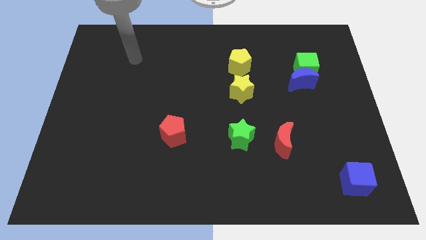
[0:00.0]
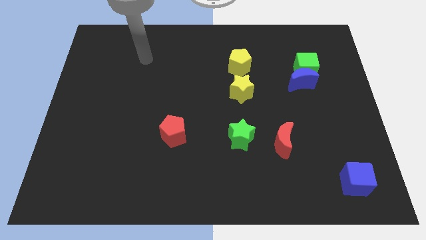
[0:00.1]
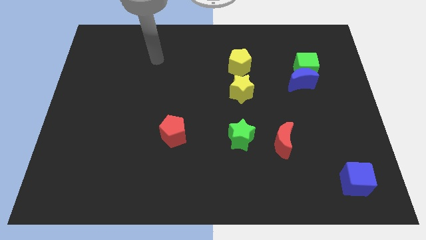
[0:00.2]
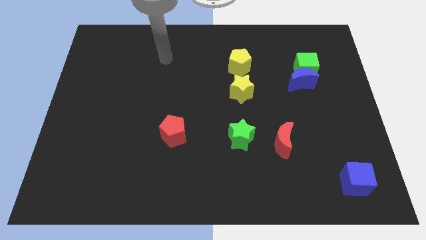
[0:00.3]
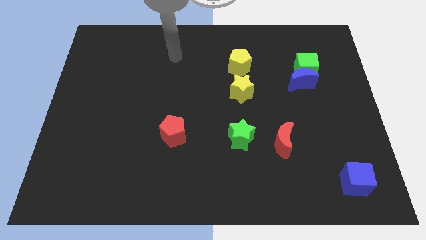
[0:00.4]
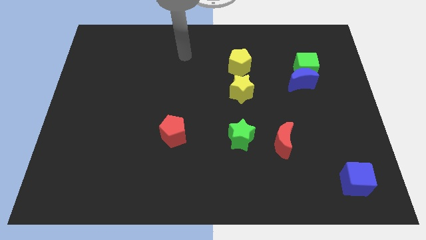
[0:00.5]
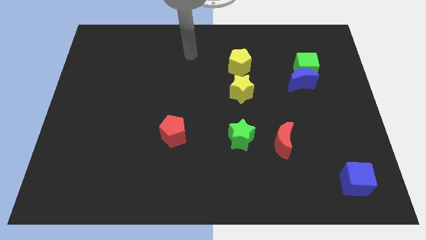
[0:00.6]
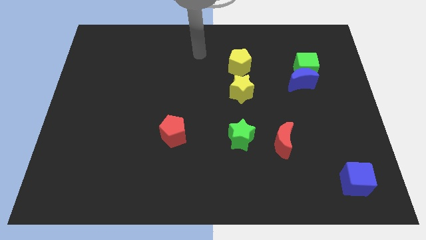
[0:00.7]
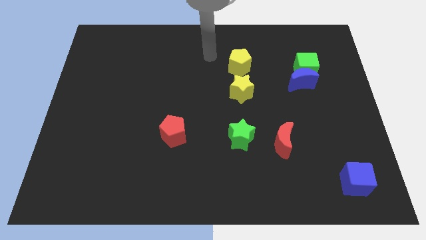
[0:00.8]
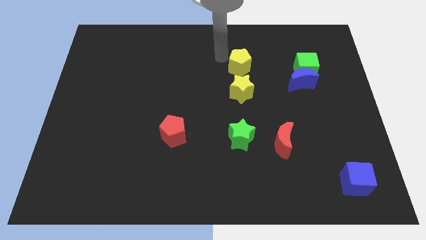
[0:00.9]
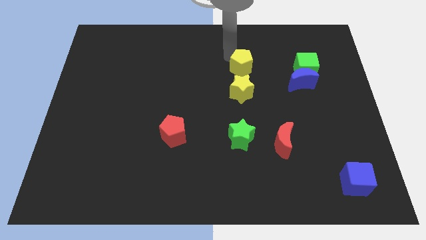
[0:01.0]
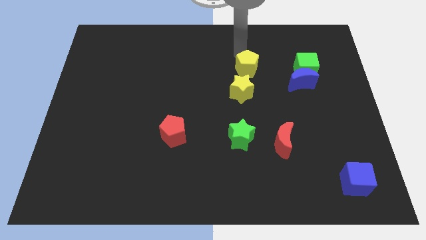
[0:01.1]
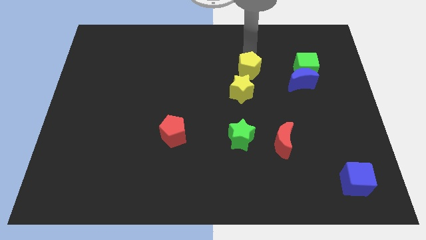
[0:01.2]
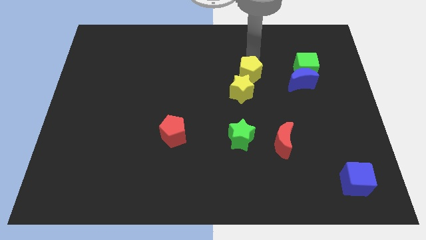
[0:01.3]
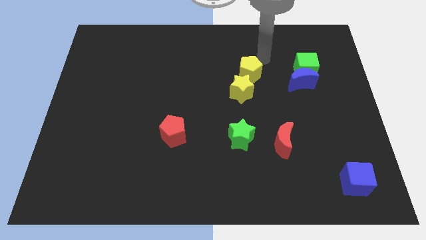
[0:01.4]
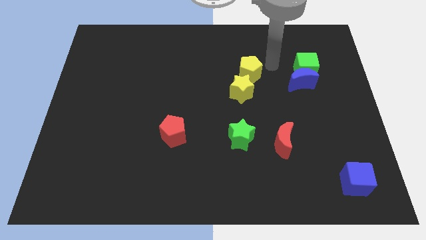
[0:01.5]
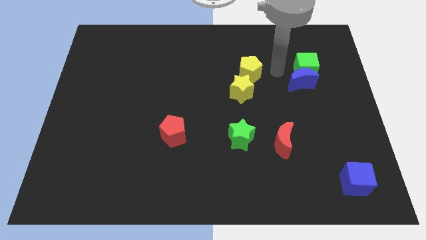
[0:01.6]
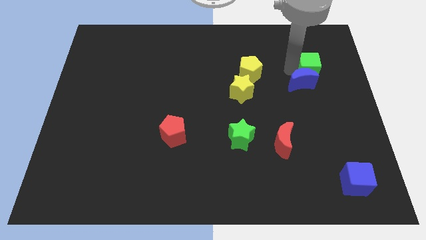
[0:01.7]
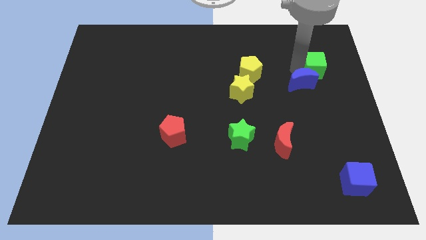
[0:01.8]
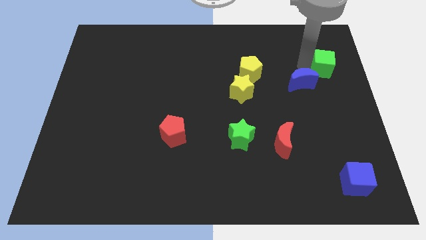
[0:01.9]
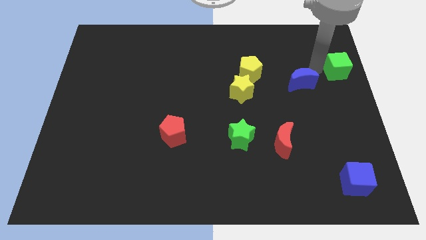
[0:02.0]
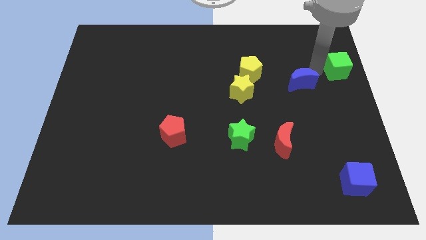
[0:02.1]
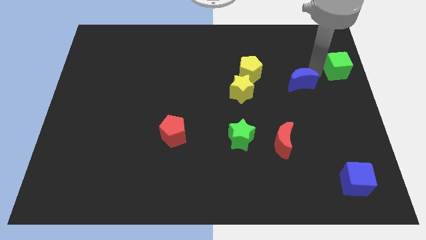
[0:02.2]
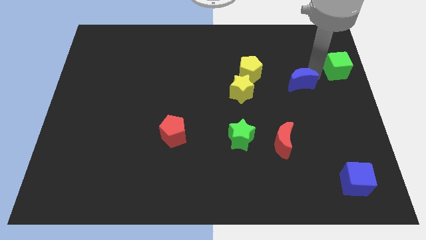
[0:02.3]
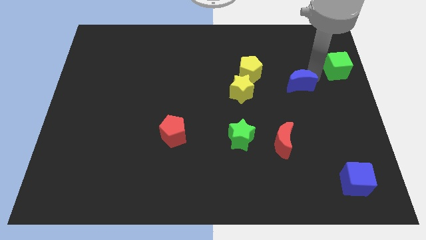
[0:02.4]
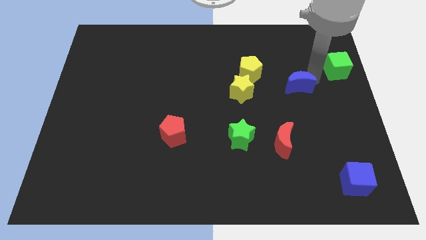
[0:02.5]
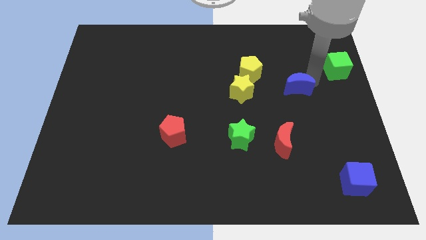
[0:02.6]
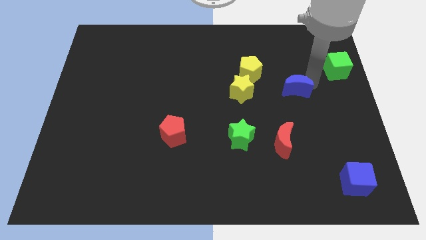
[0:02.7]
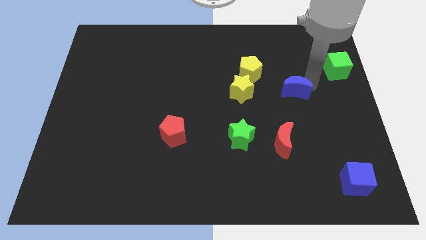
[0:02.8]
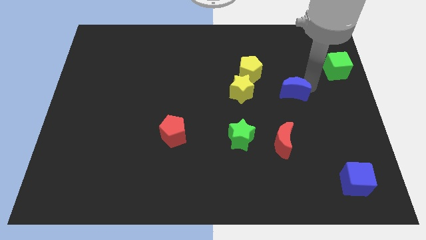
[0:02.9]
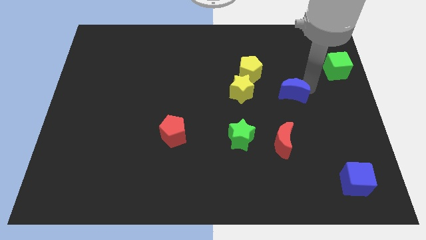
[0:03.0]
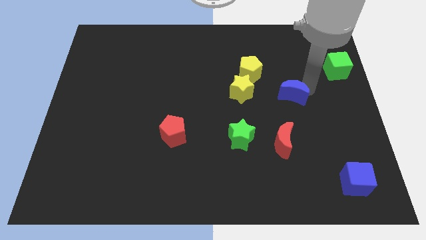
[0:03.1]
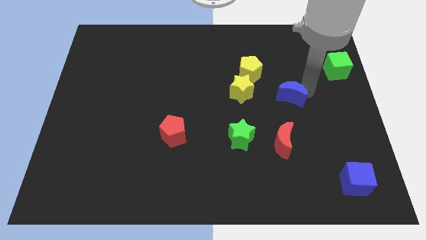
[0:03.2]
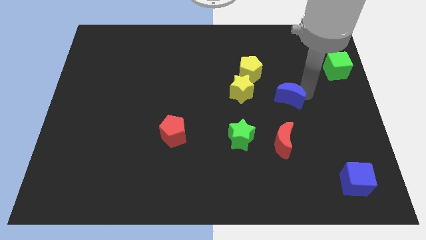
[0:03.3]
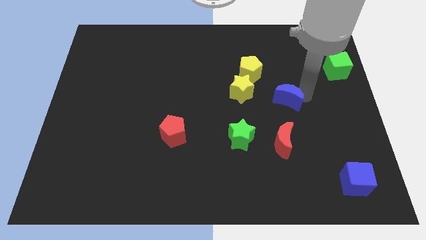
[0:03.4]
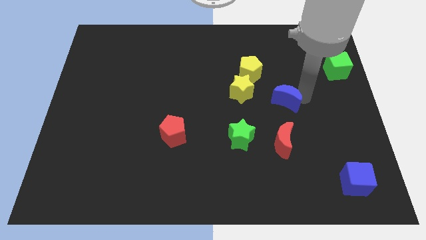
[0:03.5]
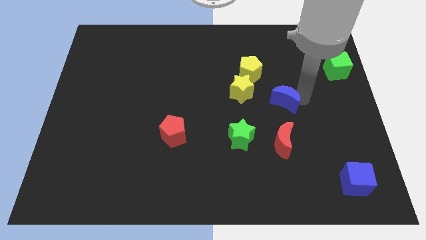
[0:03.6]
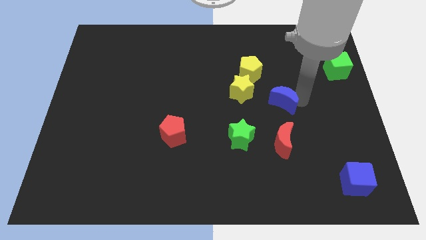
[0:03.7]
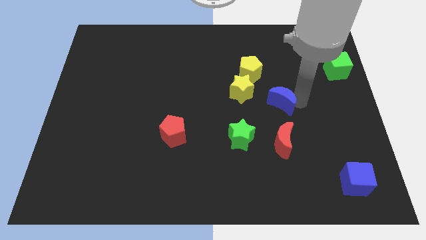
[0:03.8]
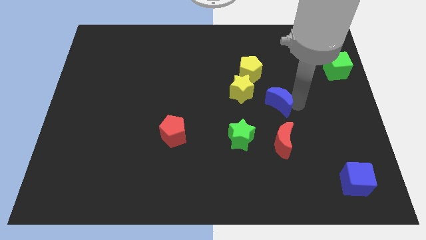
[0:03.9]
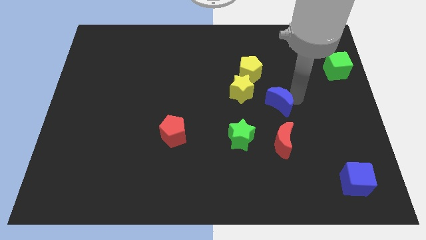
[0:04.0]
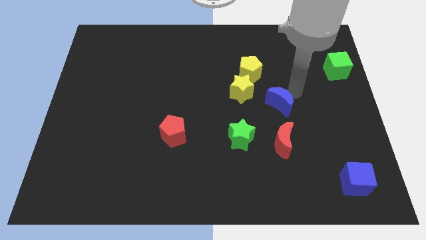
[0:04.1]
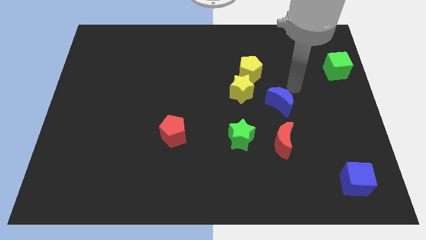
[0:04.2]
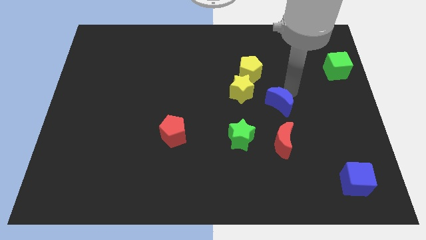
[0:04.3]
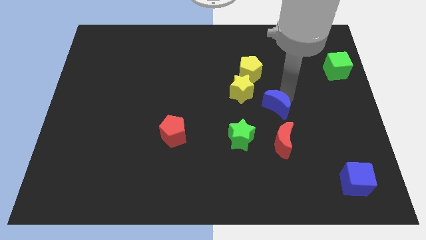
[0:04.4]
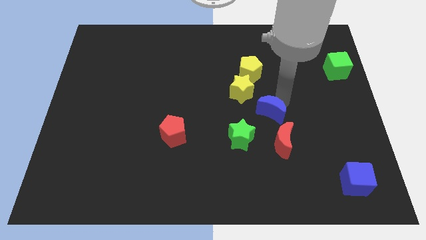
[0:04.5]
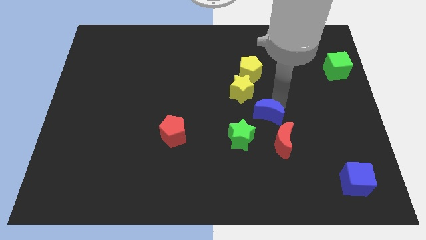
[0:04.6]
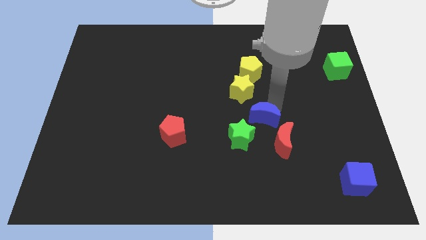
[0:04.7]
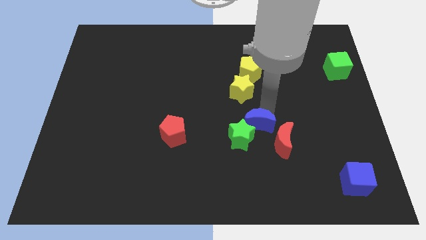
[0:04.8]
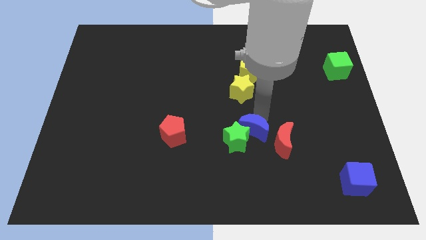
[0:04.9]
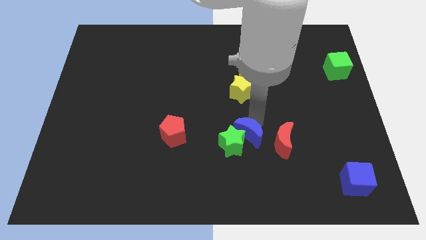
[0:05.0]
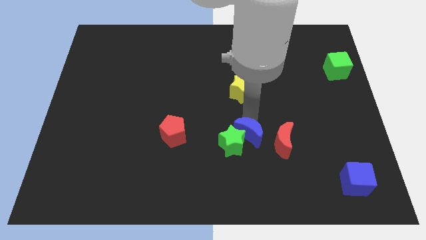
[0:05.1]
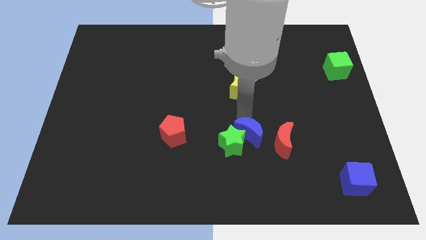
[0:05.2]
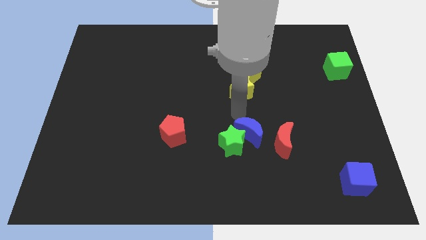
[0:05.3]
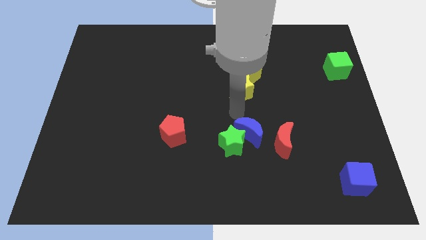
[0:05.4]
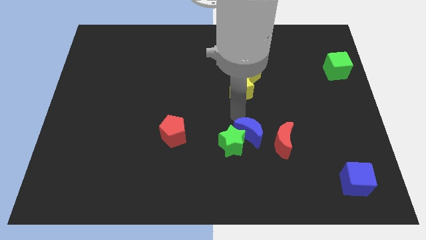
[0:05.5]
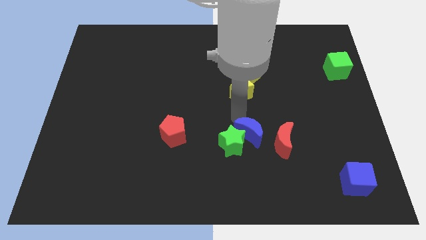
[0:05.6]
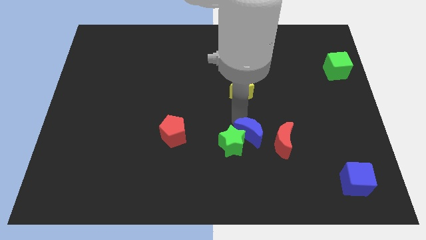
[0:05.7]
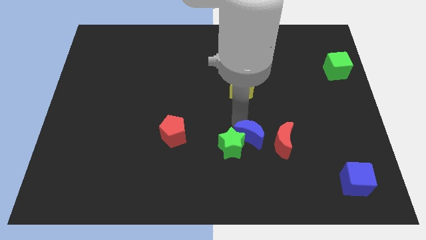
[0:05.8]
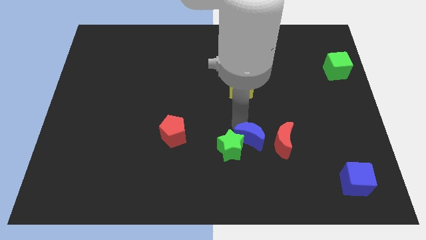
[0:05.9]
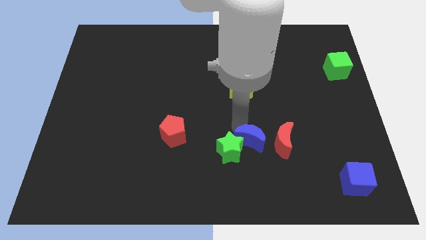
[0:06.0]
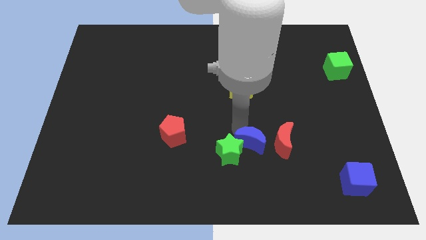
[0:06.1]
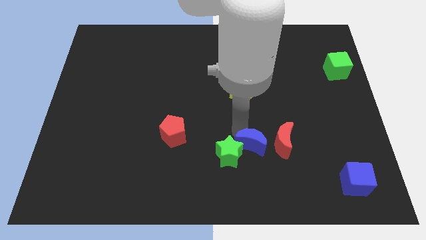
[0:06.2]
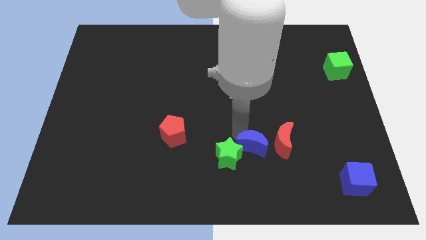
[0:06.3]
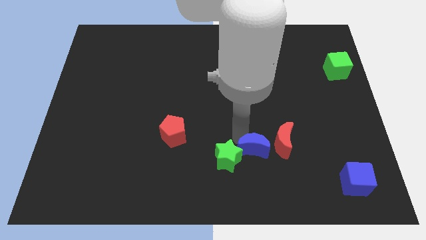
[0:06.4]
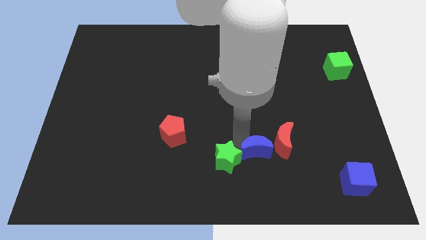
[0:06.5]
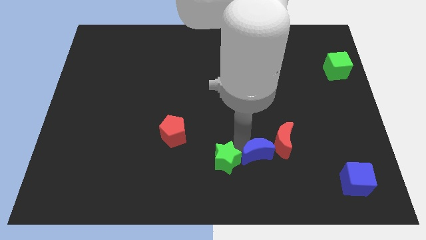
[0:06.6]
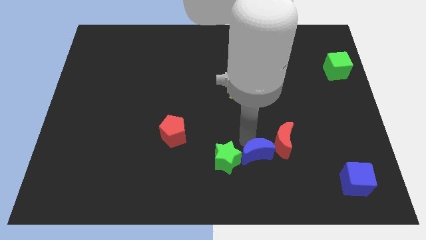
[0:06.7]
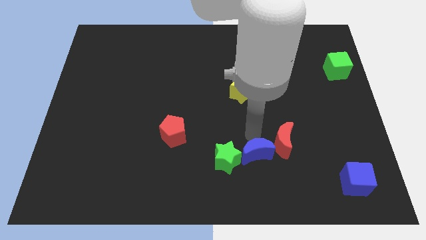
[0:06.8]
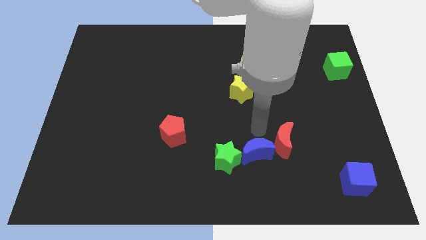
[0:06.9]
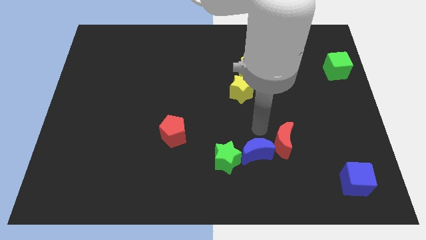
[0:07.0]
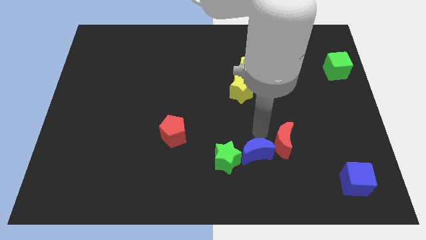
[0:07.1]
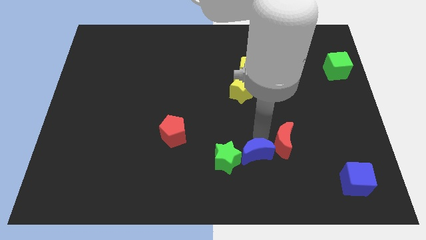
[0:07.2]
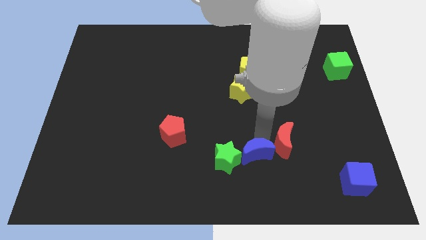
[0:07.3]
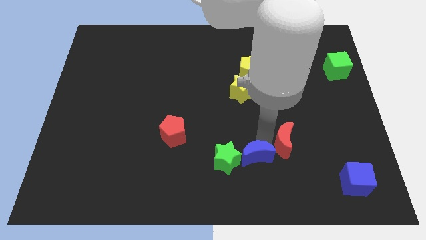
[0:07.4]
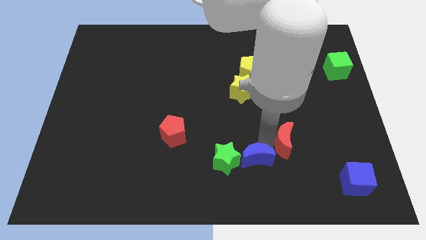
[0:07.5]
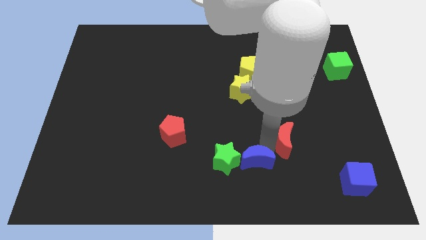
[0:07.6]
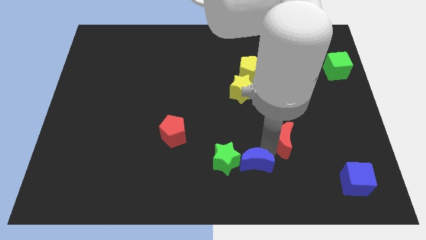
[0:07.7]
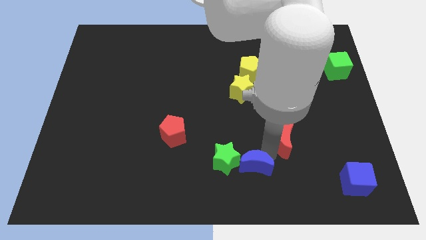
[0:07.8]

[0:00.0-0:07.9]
slide the blue moon to the bottom
